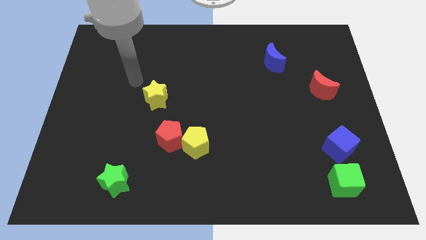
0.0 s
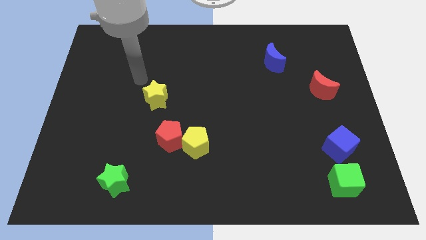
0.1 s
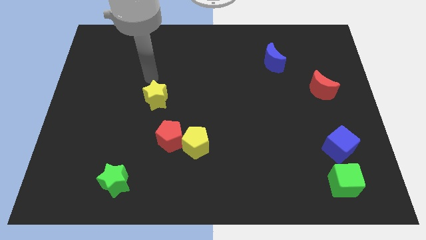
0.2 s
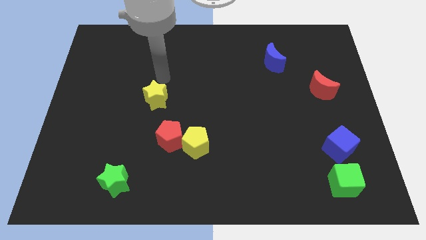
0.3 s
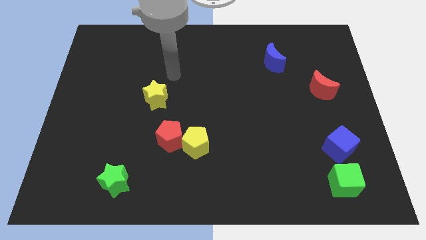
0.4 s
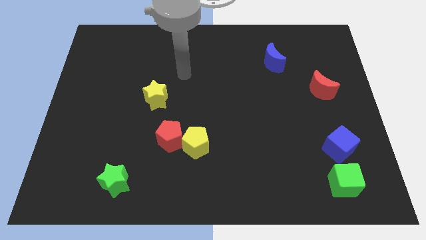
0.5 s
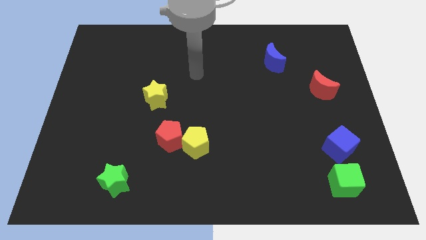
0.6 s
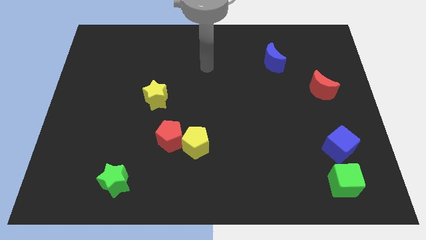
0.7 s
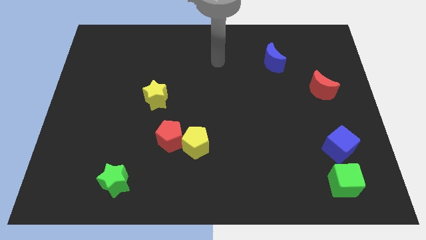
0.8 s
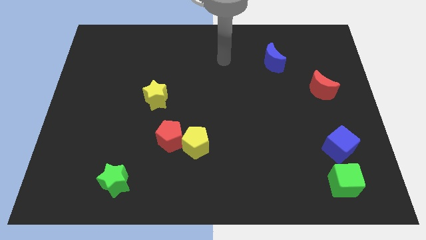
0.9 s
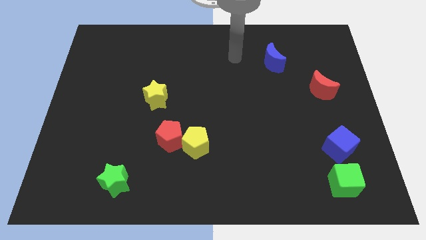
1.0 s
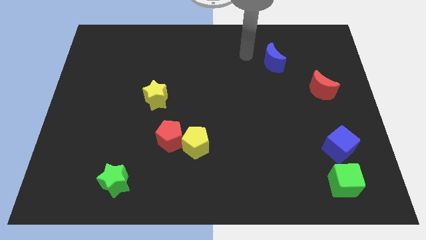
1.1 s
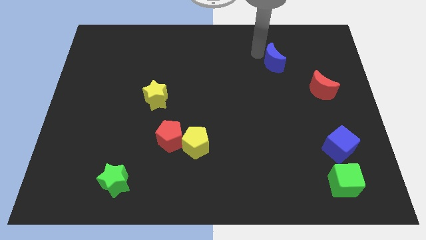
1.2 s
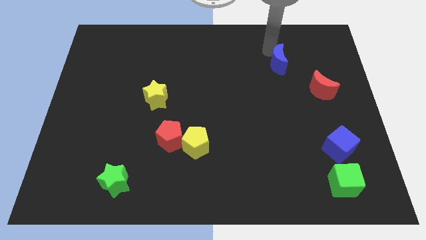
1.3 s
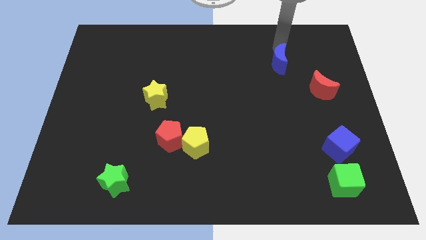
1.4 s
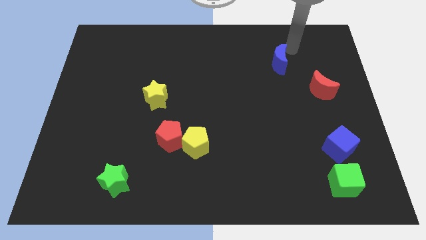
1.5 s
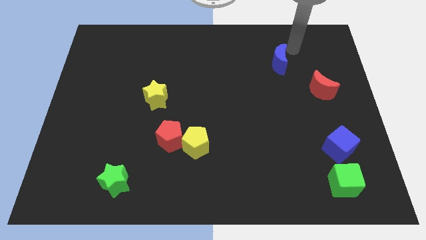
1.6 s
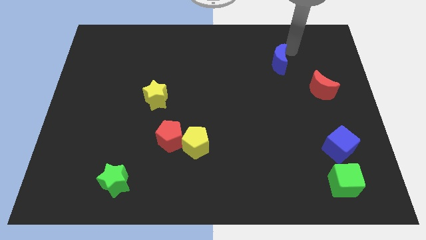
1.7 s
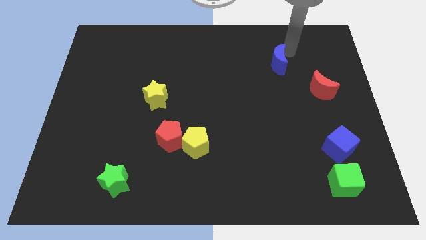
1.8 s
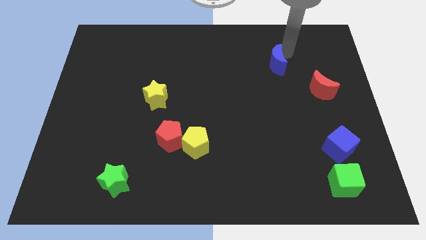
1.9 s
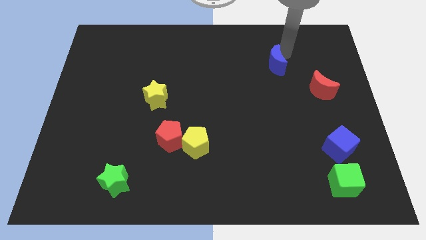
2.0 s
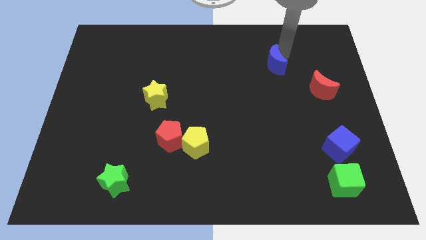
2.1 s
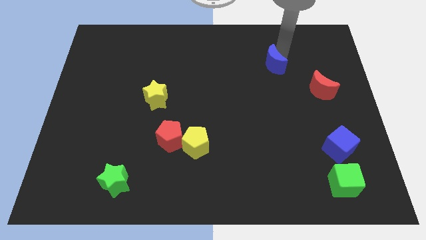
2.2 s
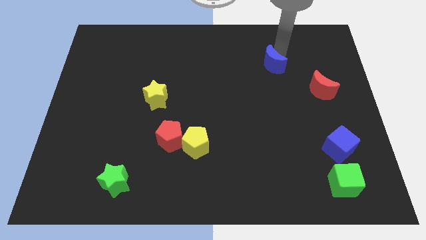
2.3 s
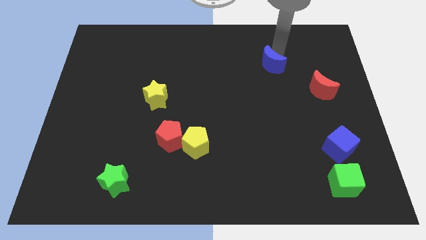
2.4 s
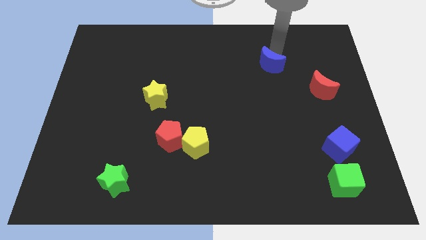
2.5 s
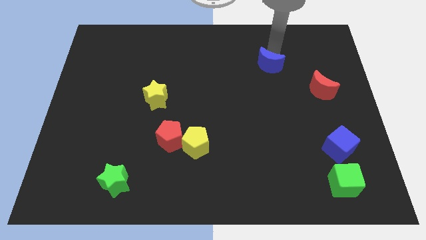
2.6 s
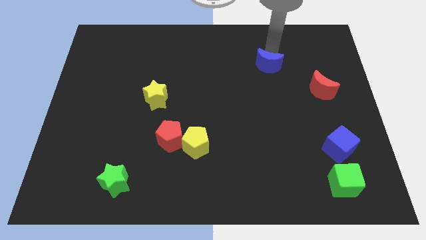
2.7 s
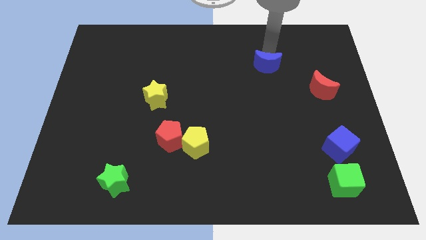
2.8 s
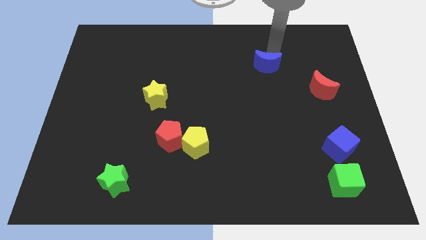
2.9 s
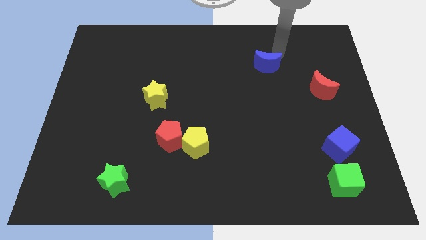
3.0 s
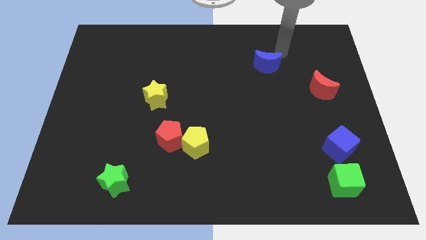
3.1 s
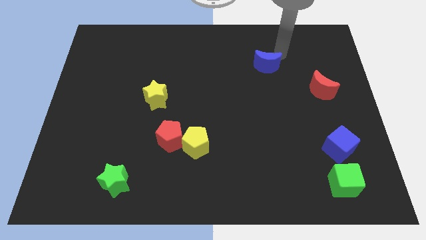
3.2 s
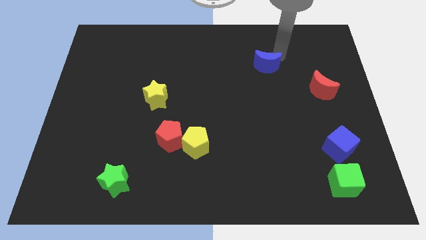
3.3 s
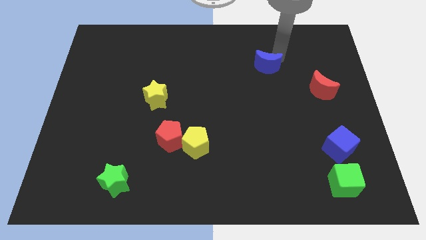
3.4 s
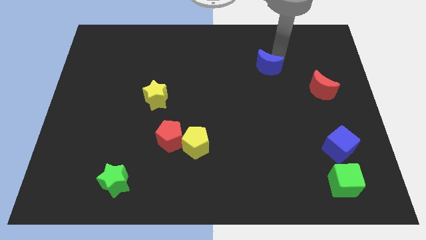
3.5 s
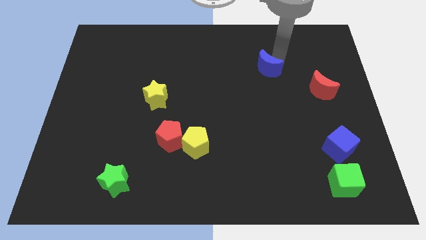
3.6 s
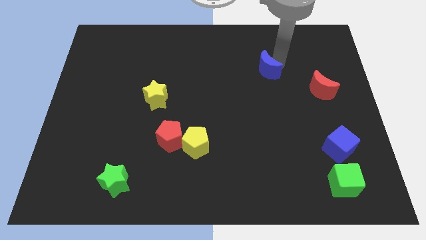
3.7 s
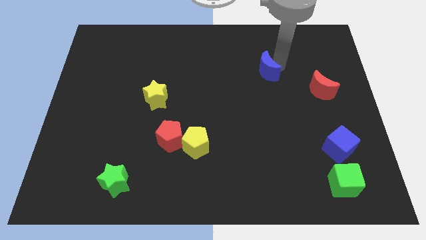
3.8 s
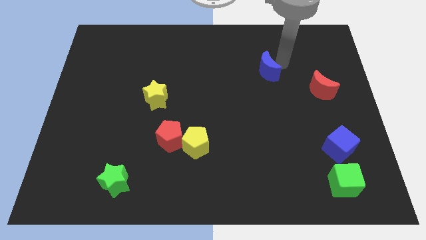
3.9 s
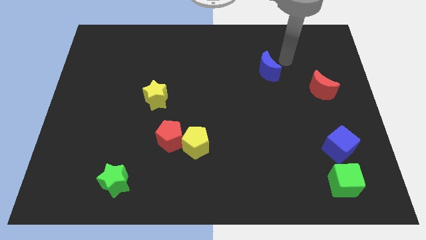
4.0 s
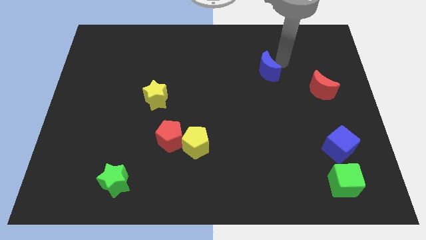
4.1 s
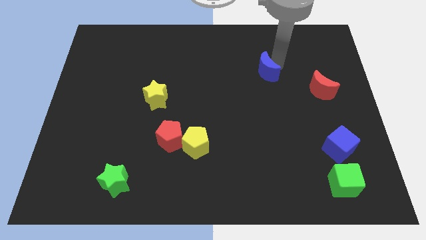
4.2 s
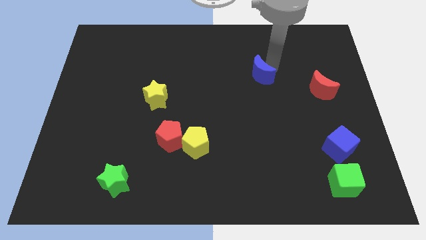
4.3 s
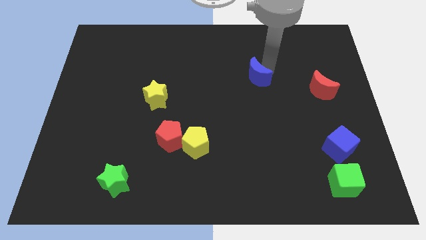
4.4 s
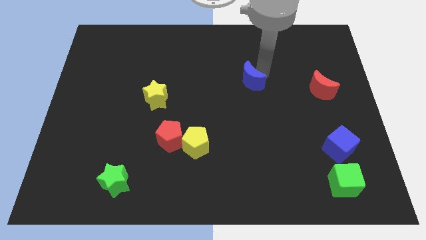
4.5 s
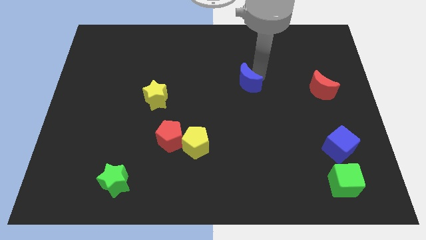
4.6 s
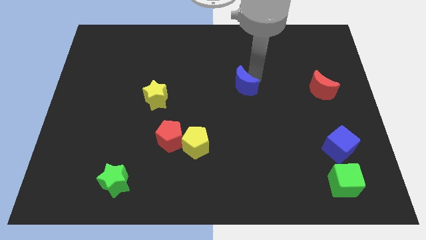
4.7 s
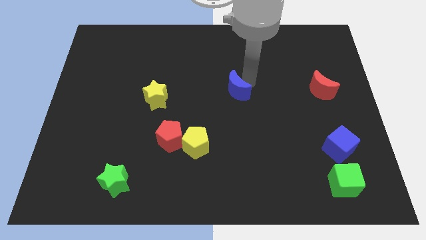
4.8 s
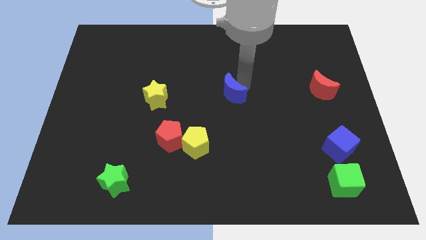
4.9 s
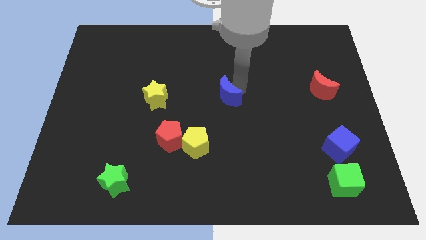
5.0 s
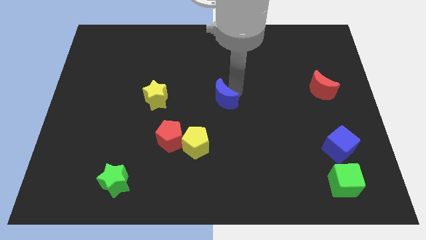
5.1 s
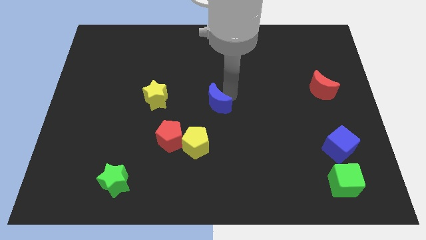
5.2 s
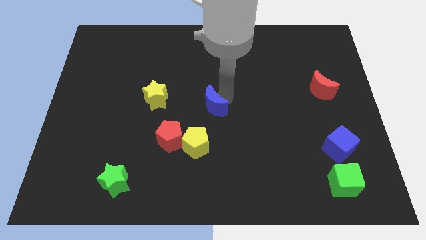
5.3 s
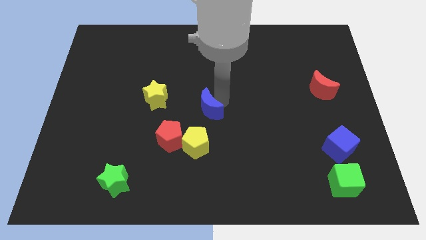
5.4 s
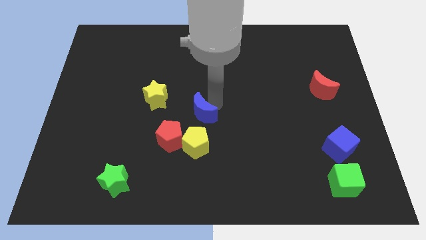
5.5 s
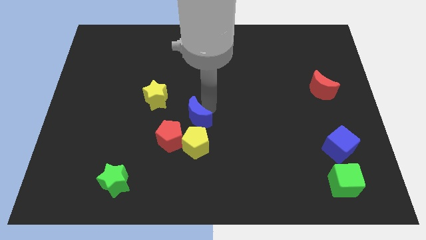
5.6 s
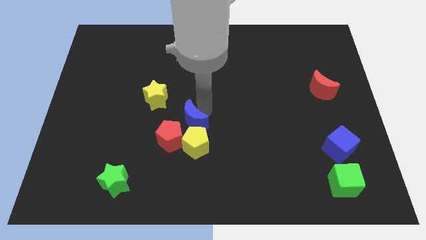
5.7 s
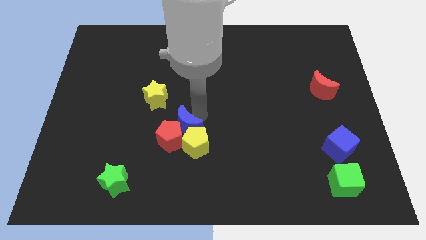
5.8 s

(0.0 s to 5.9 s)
put the blue moon next to the red pentagon

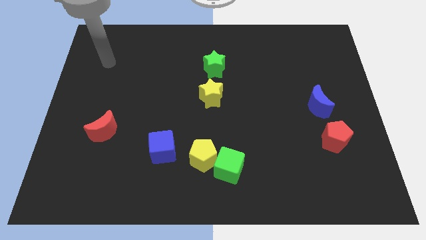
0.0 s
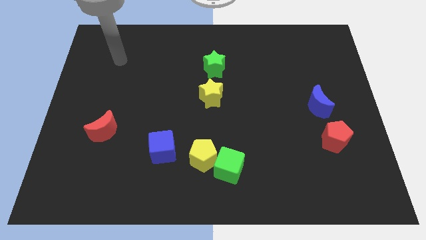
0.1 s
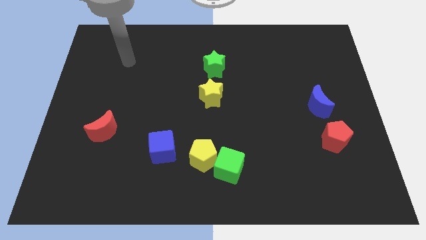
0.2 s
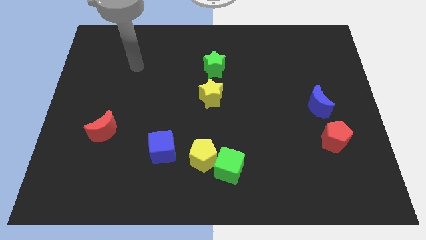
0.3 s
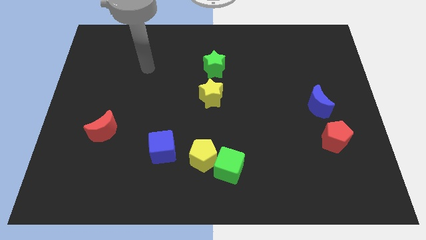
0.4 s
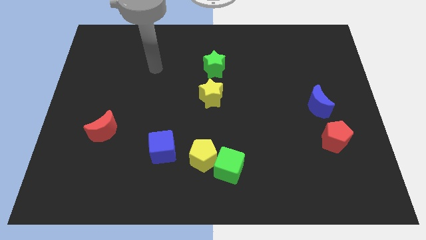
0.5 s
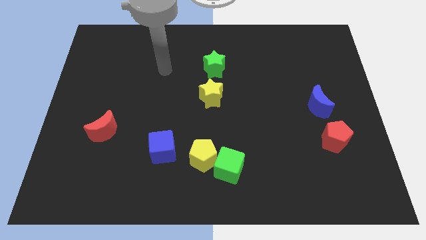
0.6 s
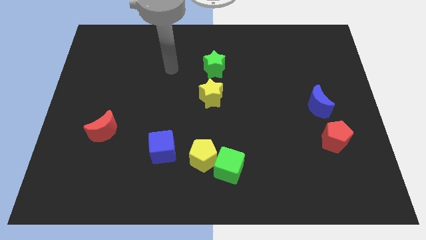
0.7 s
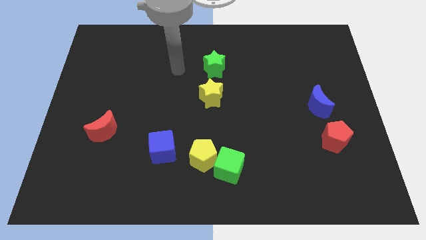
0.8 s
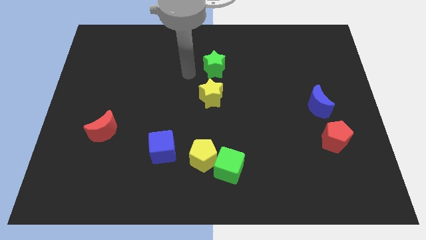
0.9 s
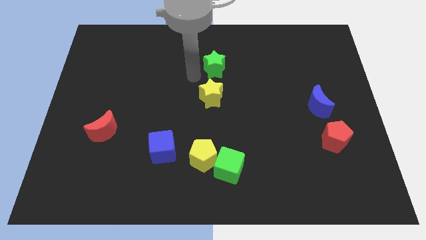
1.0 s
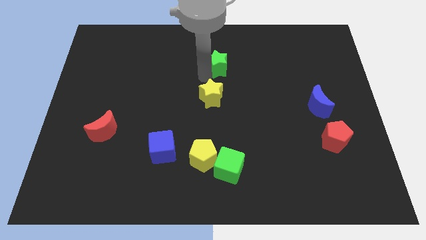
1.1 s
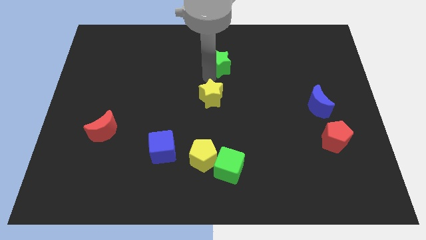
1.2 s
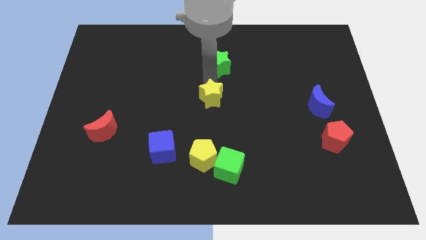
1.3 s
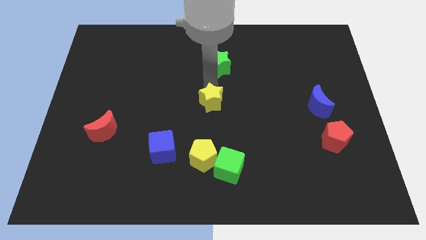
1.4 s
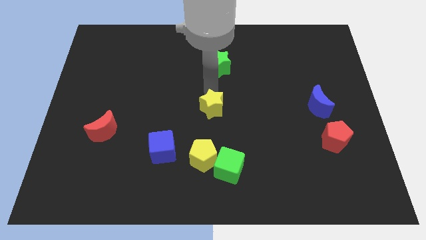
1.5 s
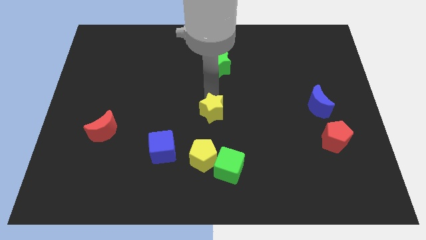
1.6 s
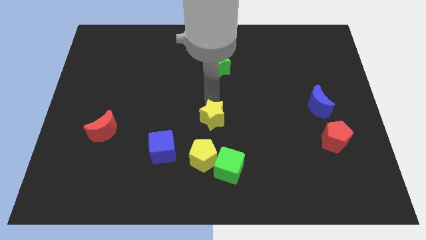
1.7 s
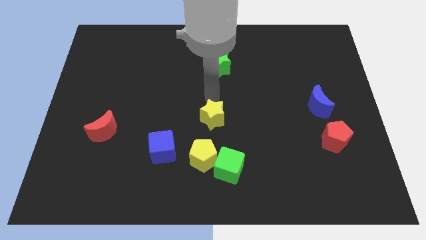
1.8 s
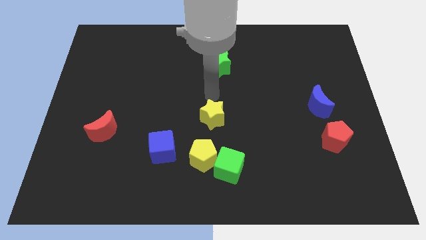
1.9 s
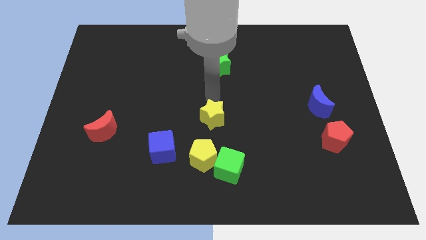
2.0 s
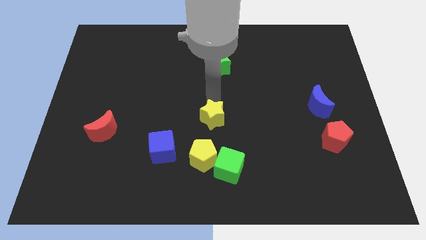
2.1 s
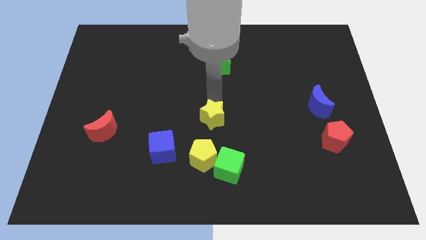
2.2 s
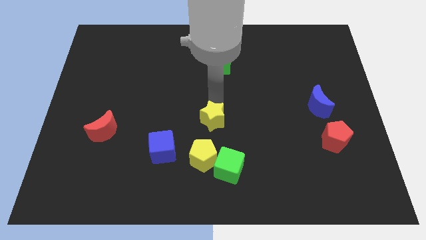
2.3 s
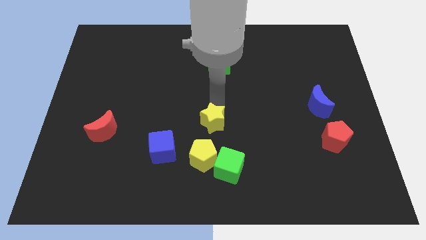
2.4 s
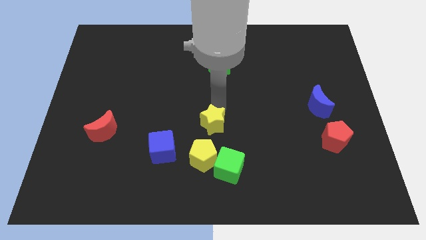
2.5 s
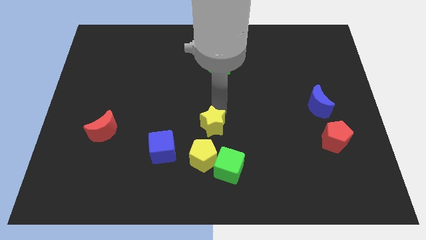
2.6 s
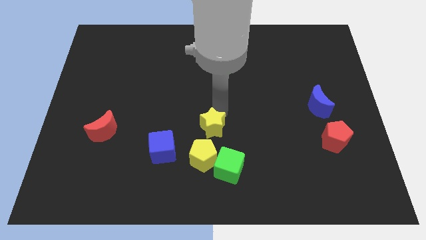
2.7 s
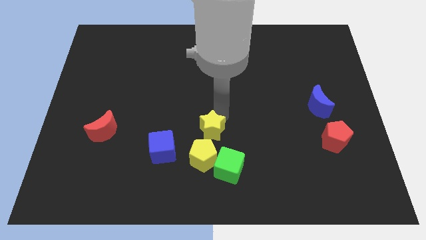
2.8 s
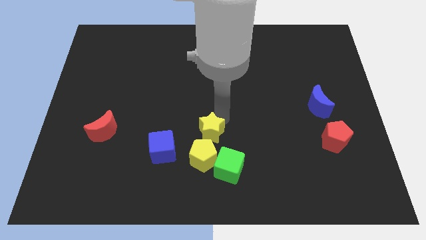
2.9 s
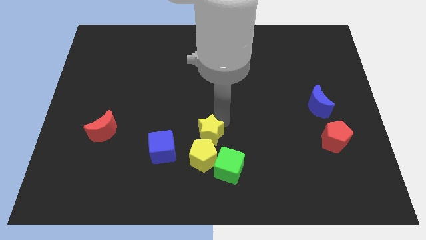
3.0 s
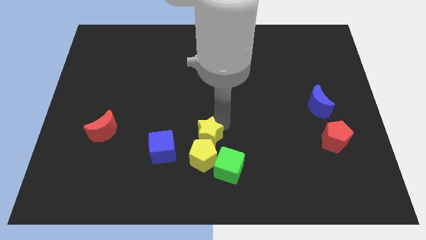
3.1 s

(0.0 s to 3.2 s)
slide the yellow star towards the yellow pentagon
